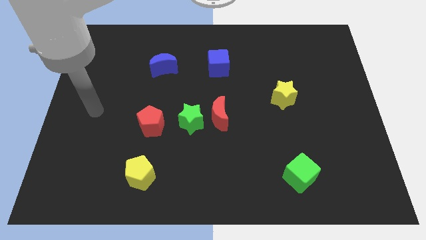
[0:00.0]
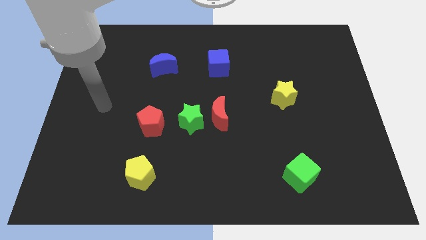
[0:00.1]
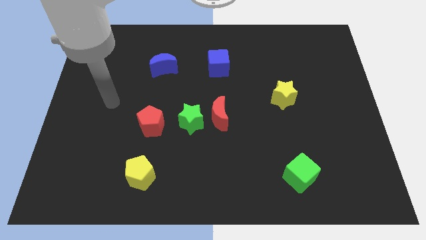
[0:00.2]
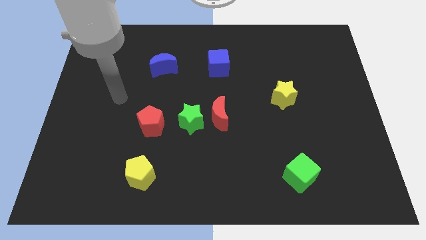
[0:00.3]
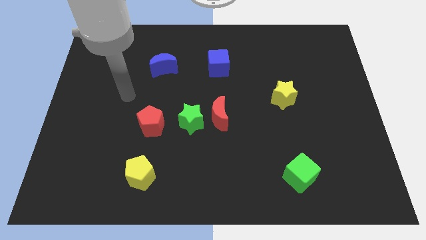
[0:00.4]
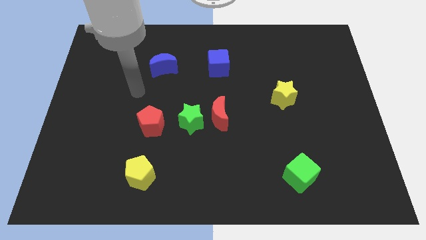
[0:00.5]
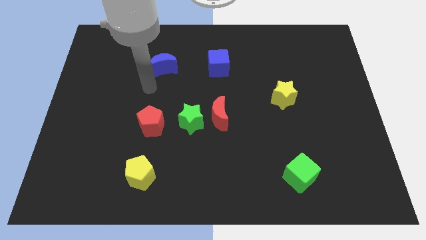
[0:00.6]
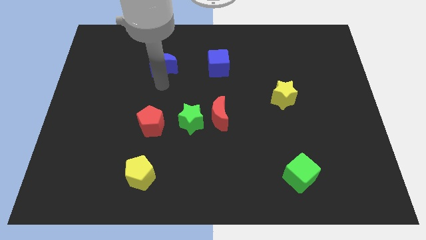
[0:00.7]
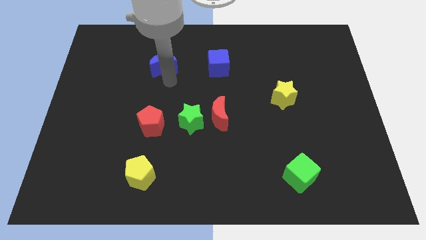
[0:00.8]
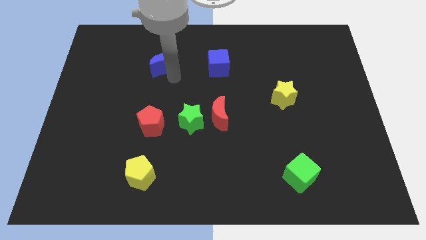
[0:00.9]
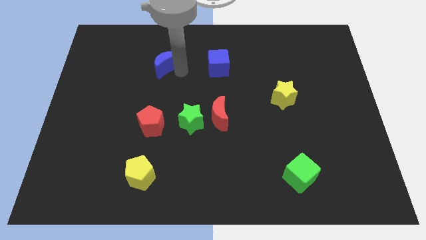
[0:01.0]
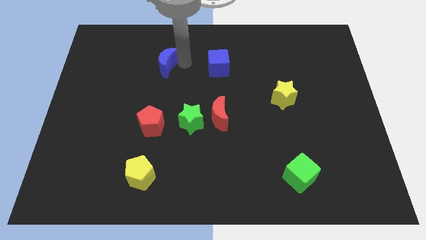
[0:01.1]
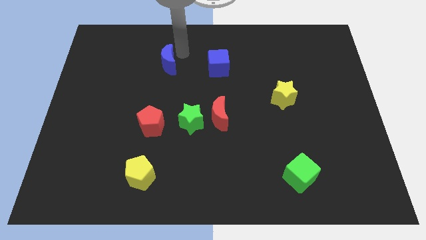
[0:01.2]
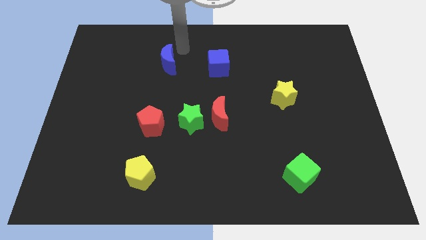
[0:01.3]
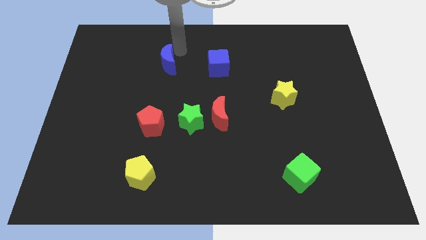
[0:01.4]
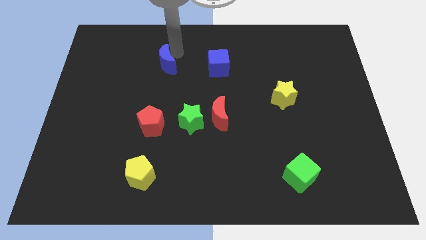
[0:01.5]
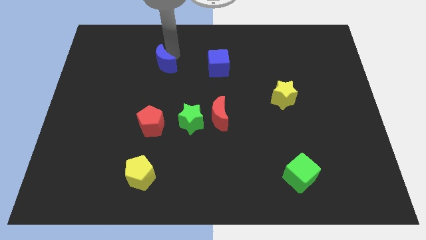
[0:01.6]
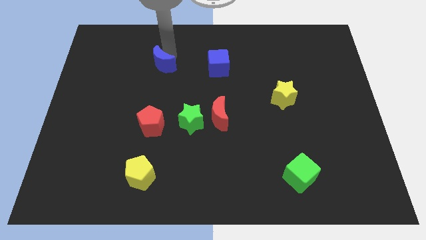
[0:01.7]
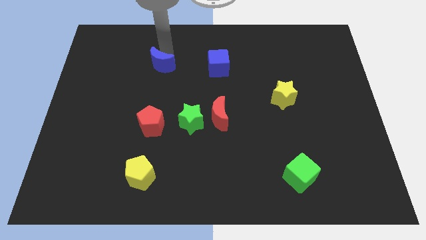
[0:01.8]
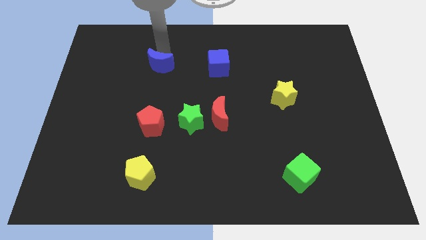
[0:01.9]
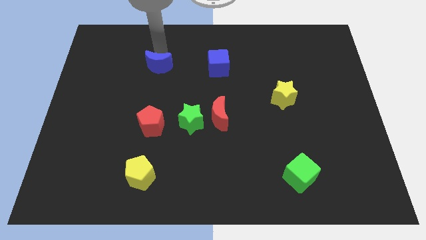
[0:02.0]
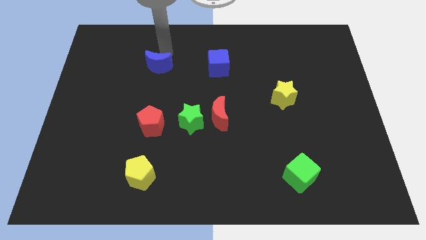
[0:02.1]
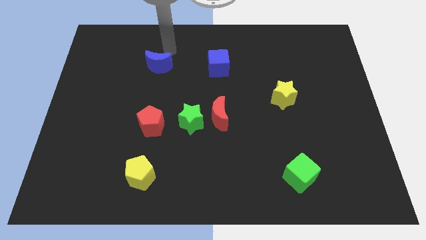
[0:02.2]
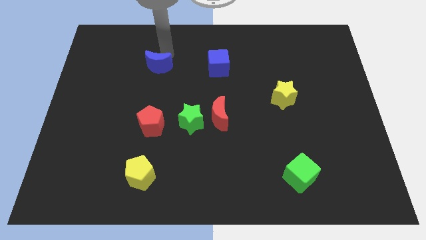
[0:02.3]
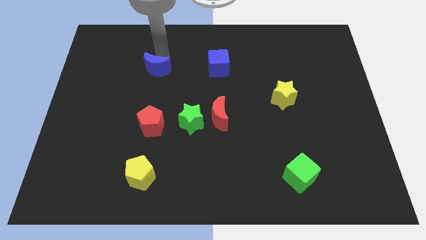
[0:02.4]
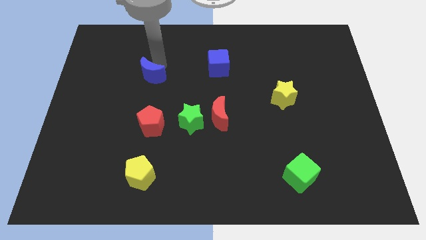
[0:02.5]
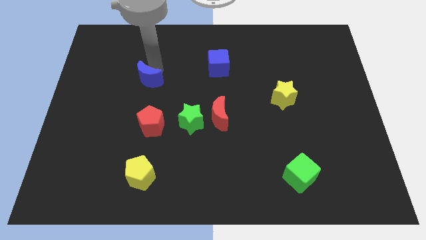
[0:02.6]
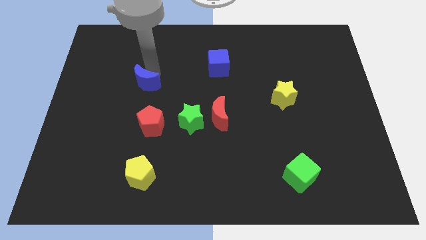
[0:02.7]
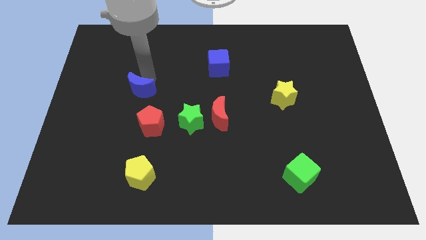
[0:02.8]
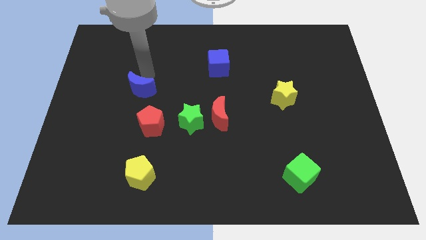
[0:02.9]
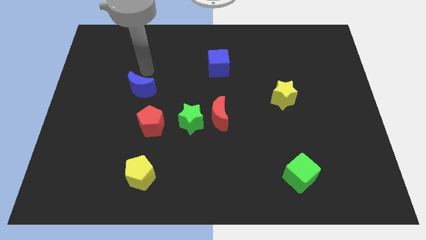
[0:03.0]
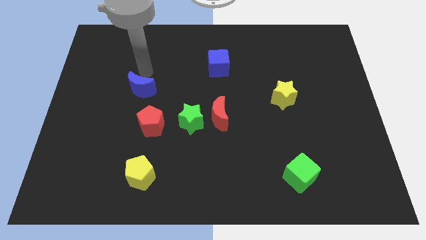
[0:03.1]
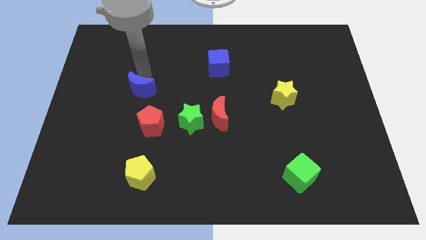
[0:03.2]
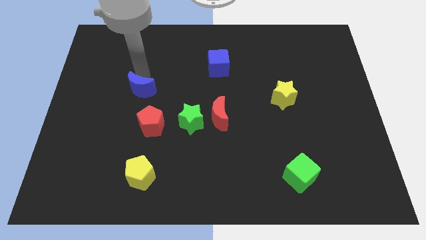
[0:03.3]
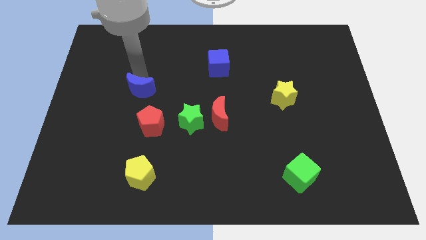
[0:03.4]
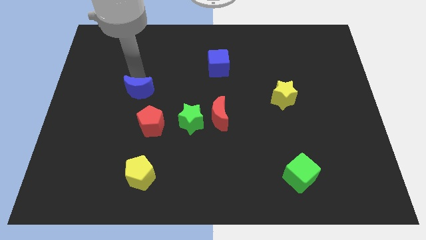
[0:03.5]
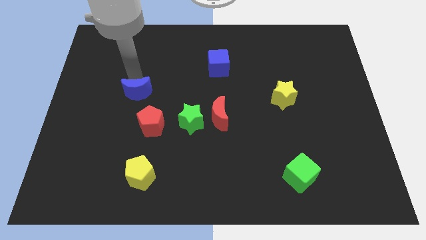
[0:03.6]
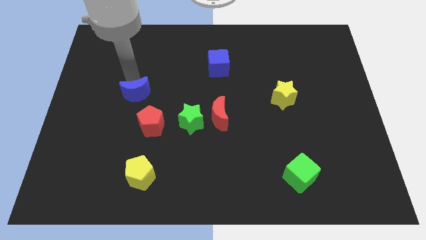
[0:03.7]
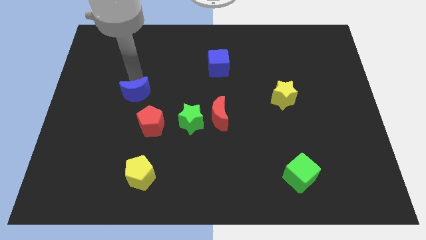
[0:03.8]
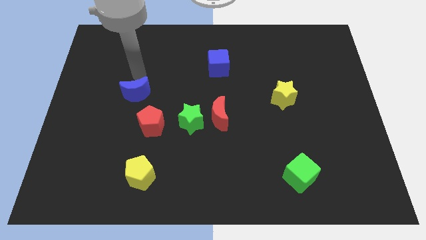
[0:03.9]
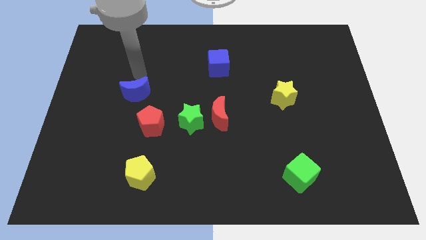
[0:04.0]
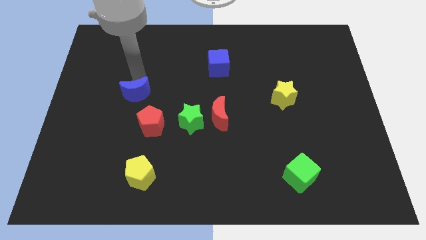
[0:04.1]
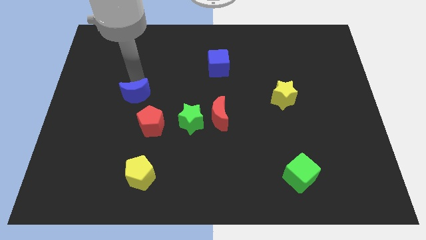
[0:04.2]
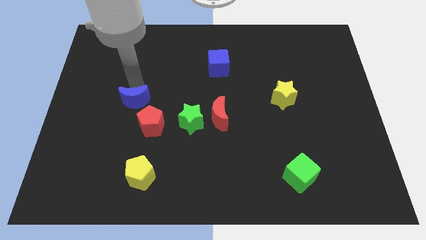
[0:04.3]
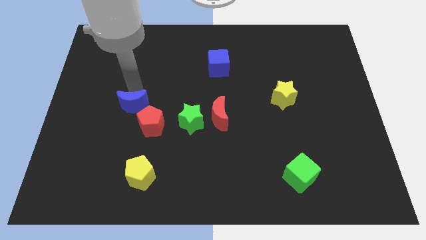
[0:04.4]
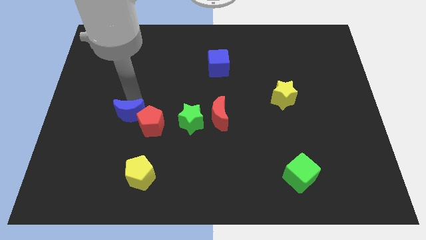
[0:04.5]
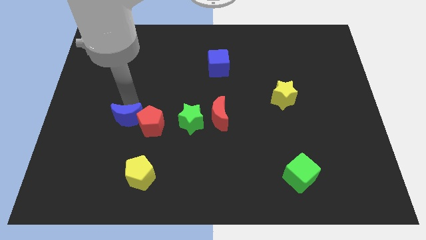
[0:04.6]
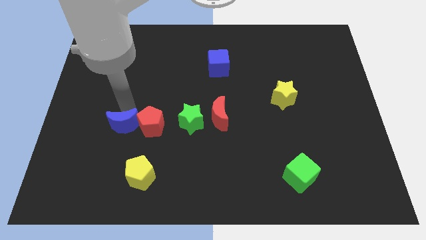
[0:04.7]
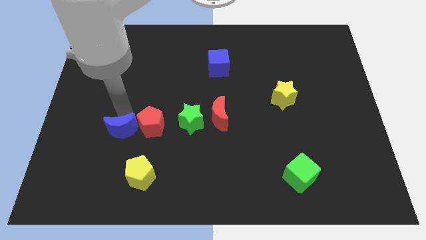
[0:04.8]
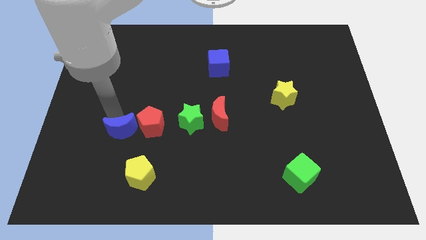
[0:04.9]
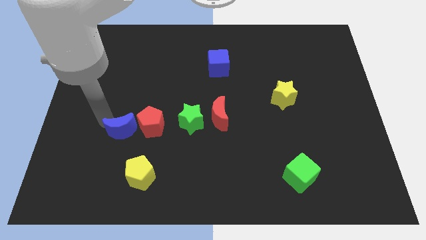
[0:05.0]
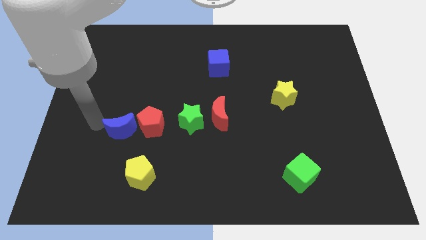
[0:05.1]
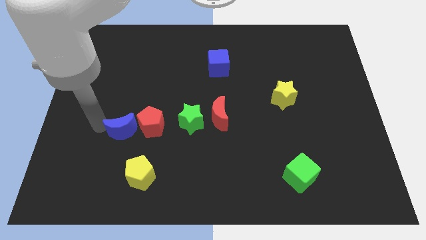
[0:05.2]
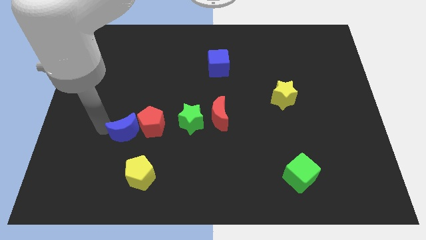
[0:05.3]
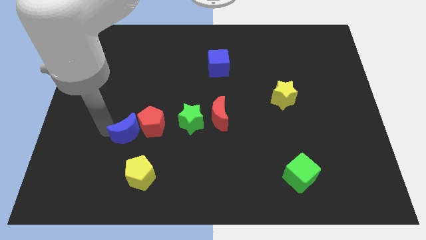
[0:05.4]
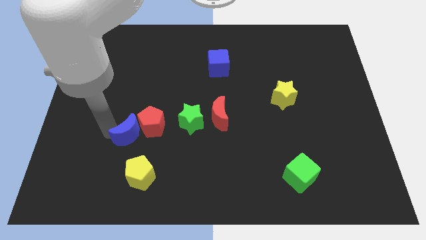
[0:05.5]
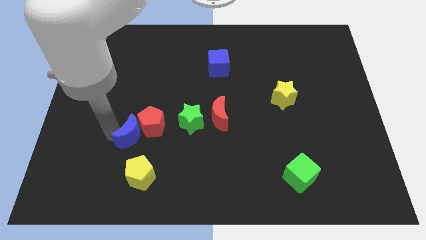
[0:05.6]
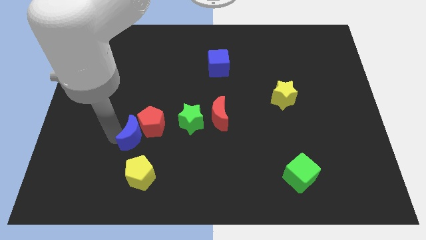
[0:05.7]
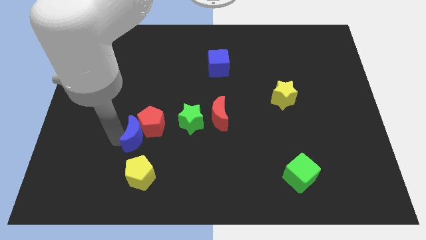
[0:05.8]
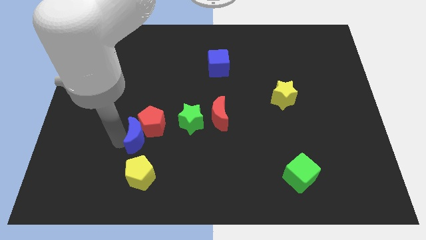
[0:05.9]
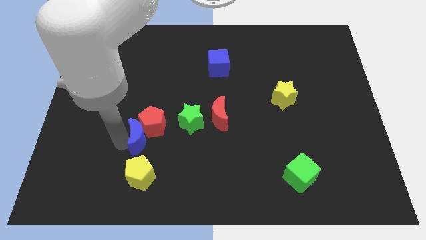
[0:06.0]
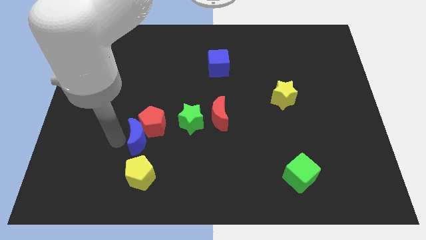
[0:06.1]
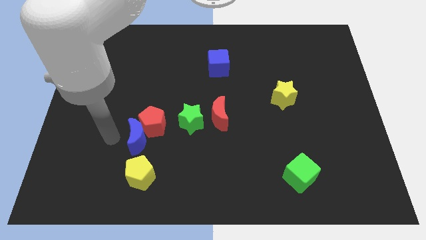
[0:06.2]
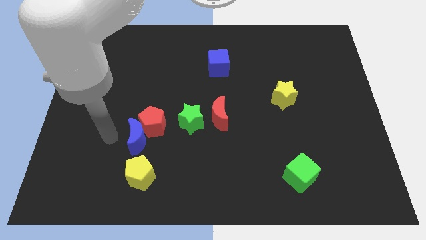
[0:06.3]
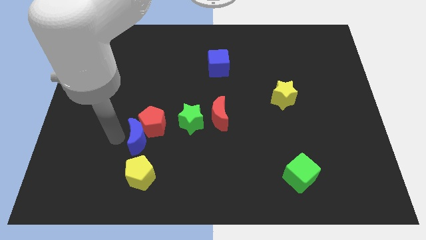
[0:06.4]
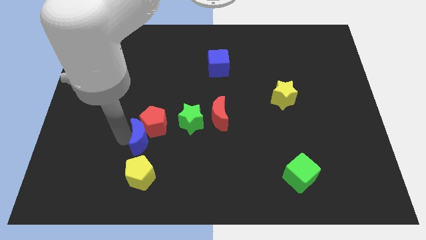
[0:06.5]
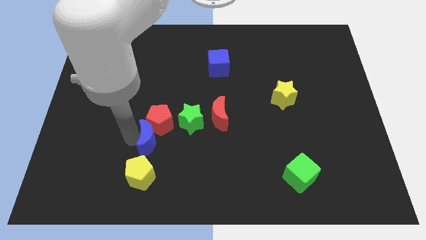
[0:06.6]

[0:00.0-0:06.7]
put the blue moon to the bottom left of the green star

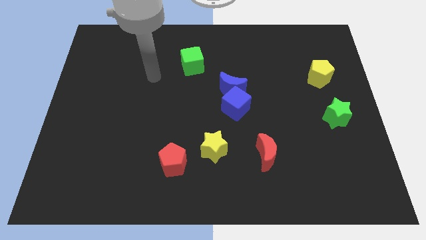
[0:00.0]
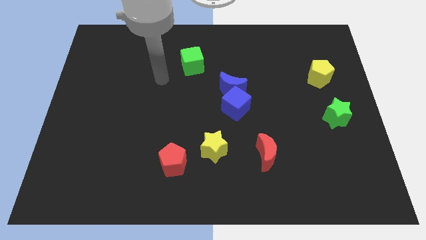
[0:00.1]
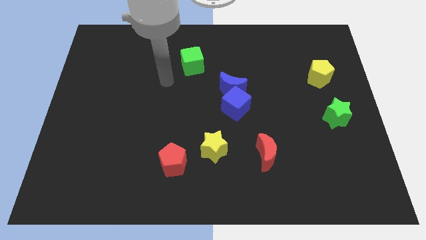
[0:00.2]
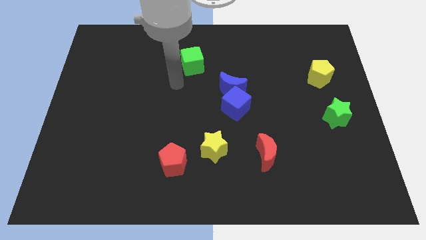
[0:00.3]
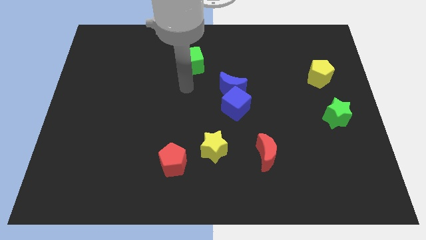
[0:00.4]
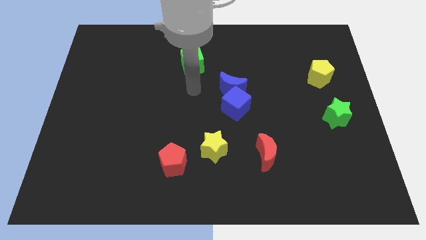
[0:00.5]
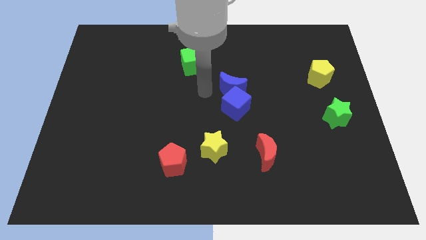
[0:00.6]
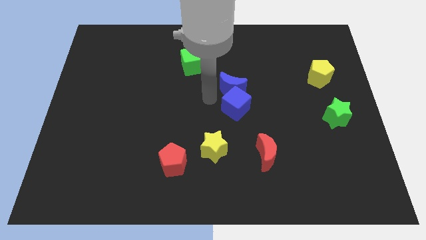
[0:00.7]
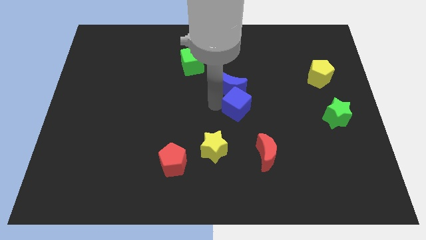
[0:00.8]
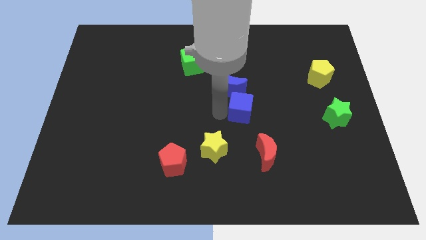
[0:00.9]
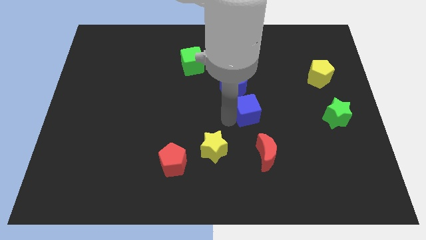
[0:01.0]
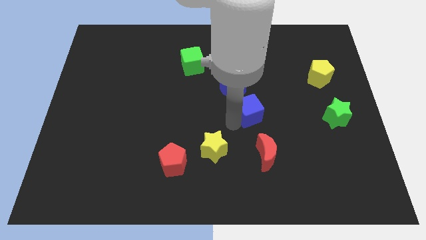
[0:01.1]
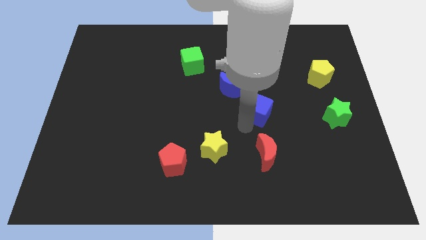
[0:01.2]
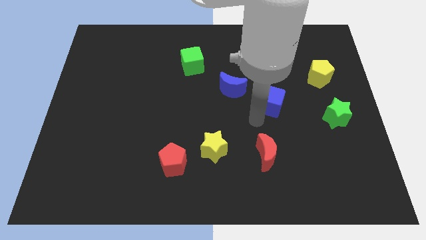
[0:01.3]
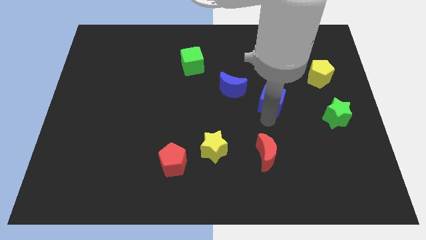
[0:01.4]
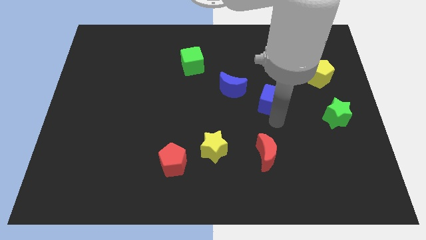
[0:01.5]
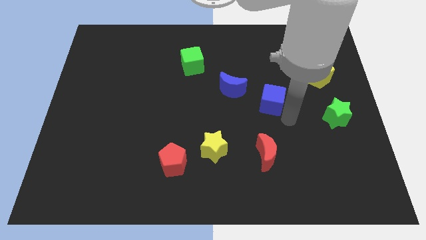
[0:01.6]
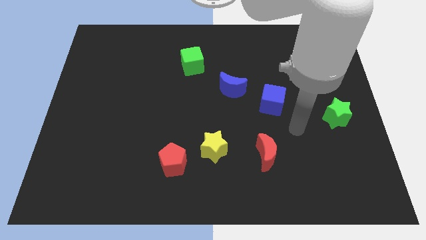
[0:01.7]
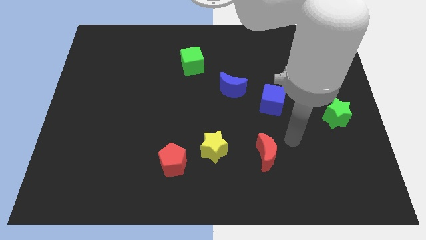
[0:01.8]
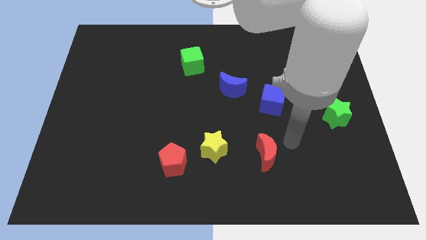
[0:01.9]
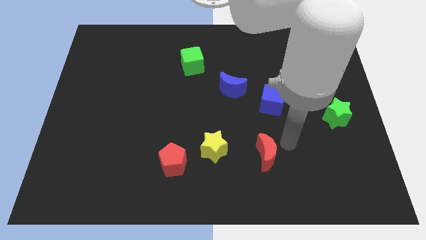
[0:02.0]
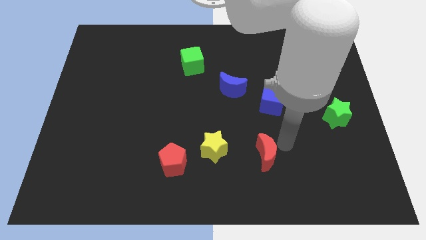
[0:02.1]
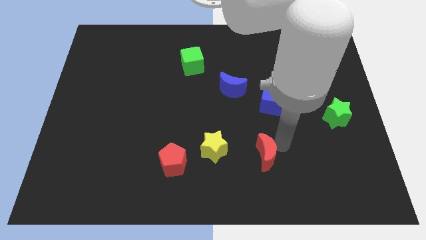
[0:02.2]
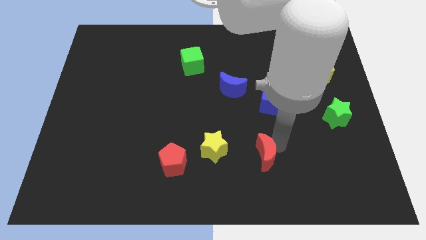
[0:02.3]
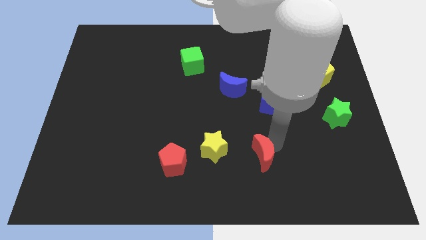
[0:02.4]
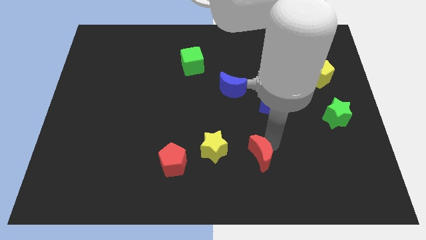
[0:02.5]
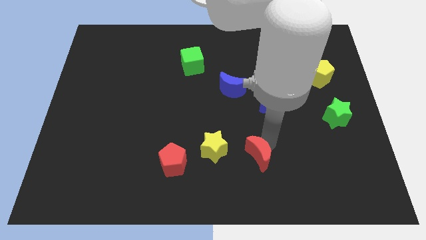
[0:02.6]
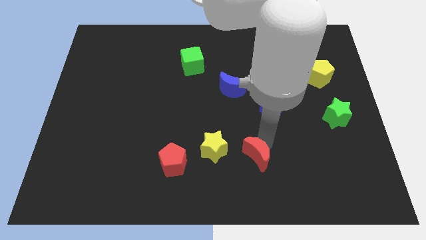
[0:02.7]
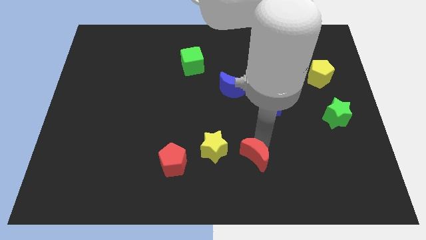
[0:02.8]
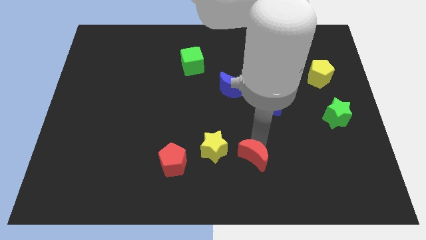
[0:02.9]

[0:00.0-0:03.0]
push the red moon to the bottom right of the yellow star
